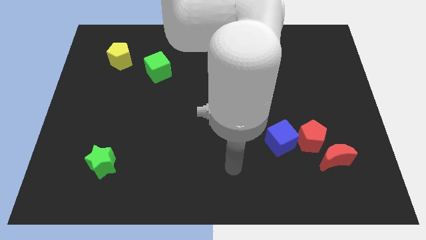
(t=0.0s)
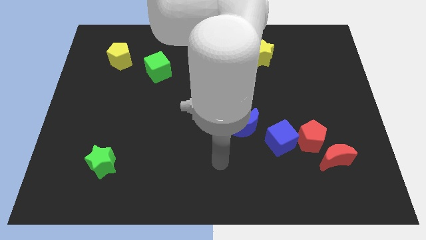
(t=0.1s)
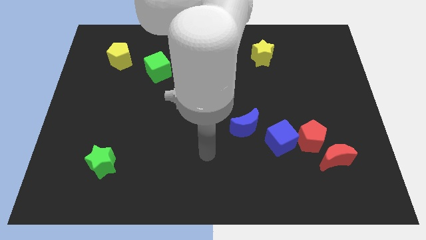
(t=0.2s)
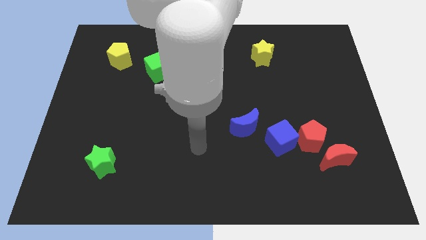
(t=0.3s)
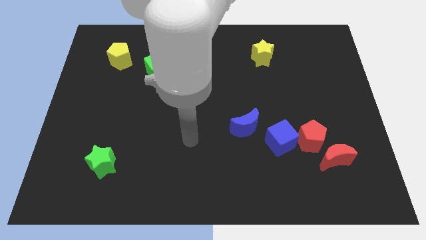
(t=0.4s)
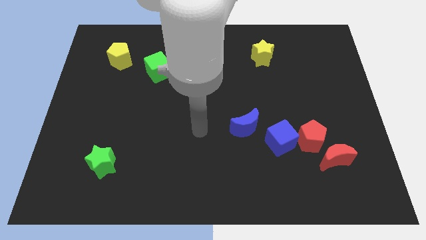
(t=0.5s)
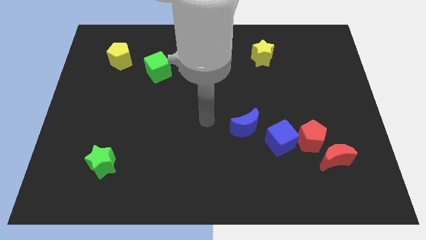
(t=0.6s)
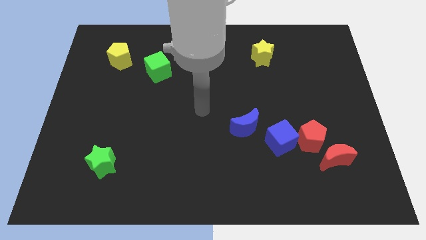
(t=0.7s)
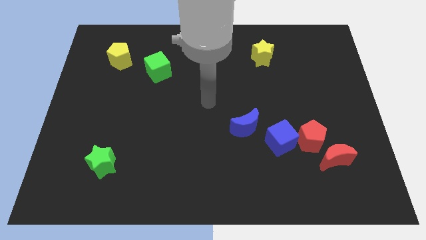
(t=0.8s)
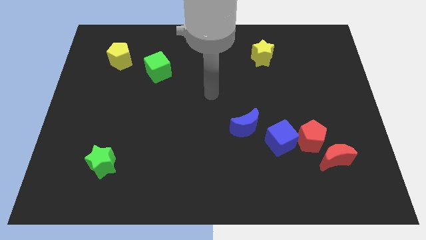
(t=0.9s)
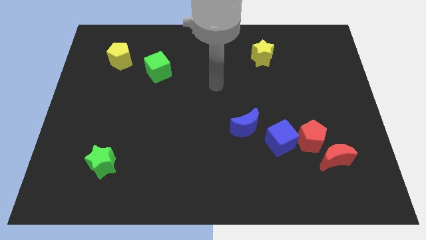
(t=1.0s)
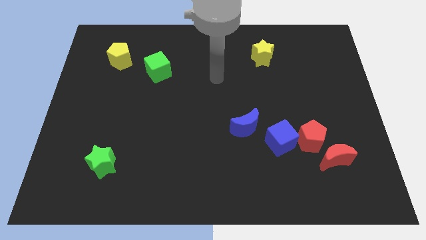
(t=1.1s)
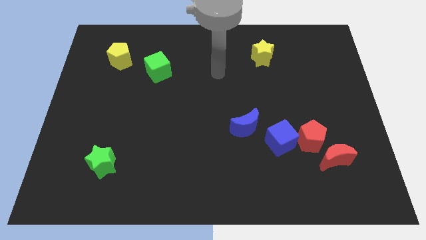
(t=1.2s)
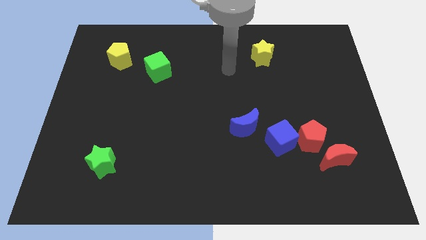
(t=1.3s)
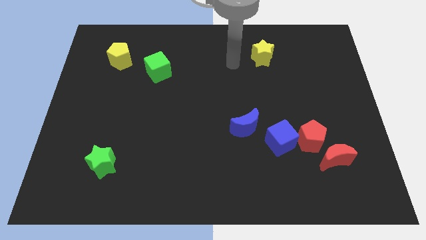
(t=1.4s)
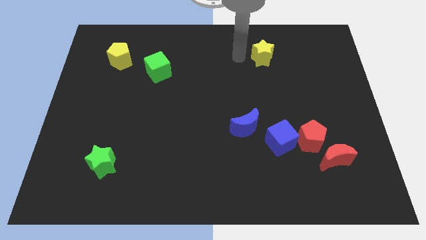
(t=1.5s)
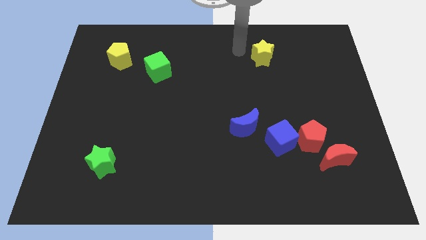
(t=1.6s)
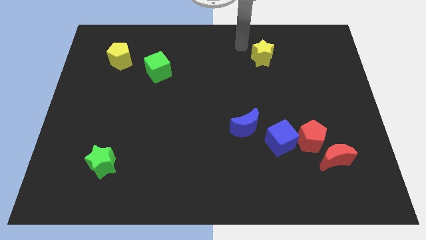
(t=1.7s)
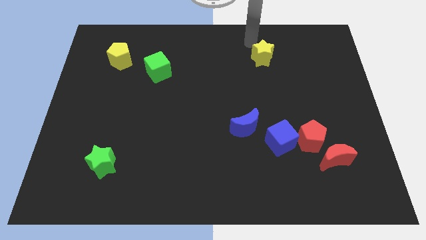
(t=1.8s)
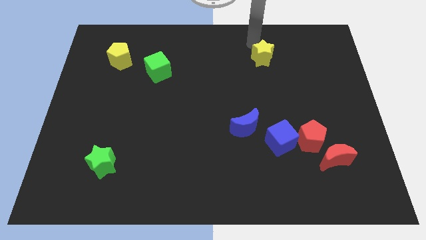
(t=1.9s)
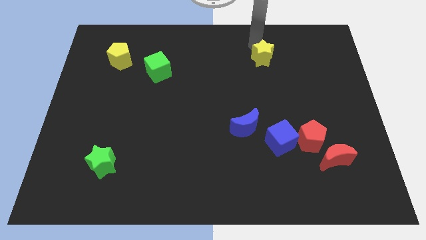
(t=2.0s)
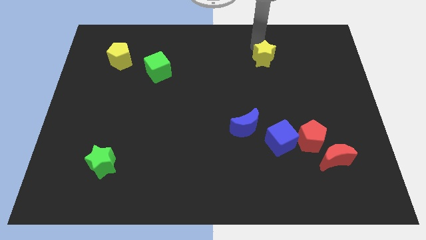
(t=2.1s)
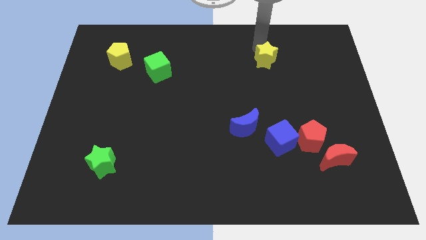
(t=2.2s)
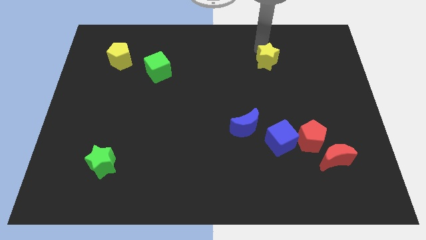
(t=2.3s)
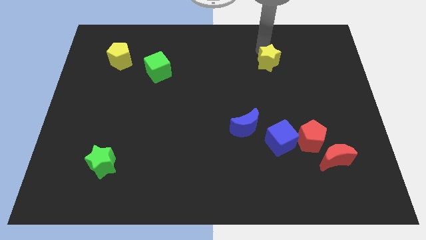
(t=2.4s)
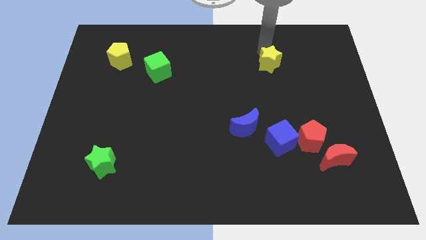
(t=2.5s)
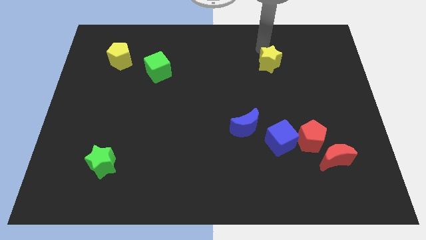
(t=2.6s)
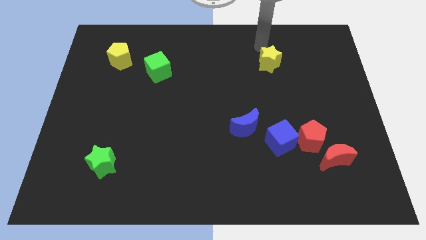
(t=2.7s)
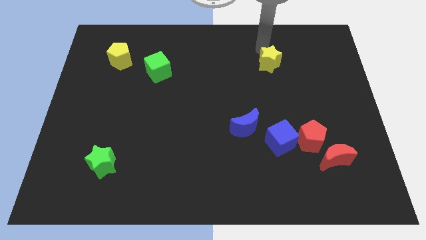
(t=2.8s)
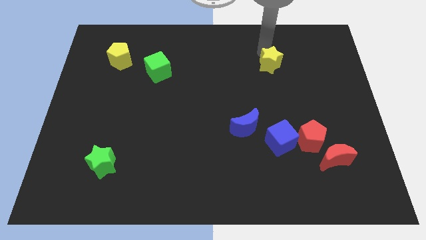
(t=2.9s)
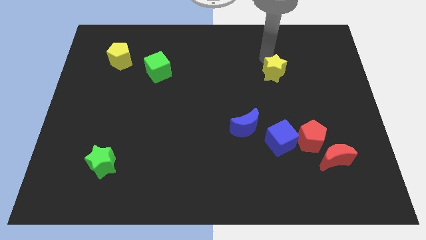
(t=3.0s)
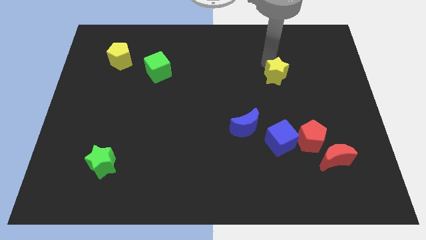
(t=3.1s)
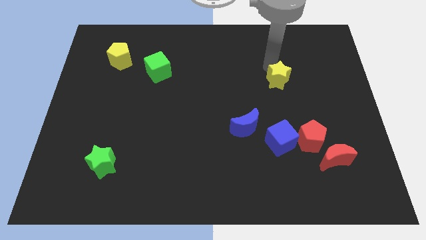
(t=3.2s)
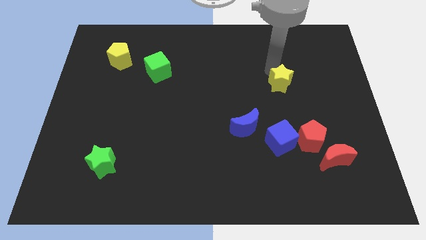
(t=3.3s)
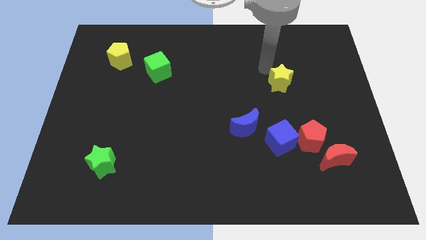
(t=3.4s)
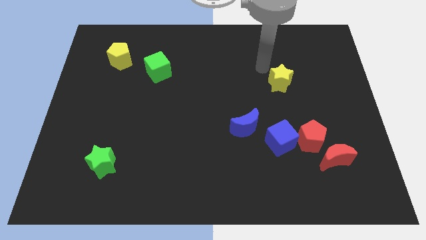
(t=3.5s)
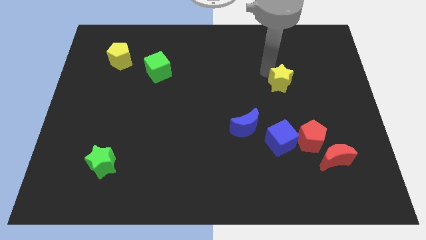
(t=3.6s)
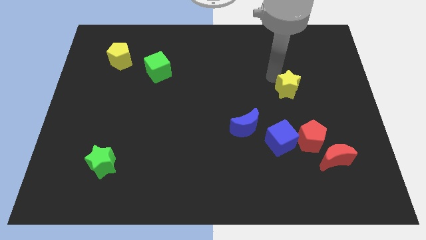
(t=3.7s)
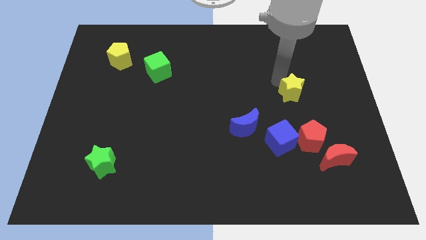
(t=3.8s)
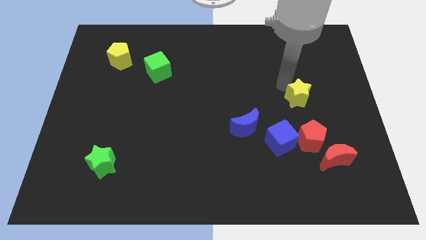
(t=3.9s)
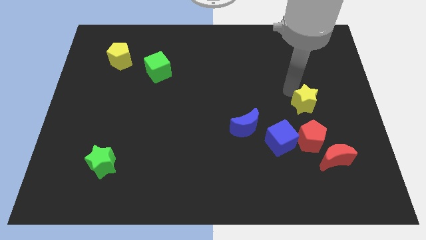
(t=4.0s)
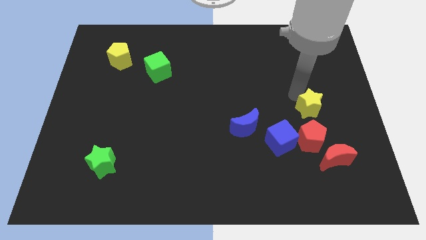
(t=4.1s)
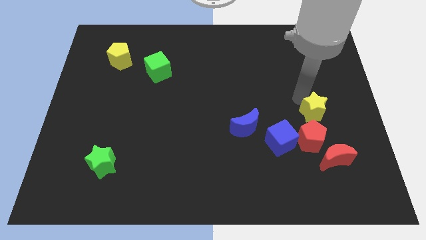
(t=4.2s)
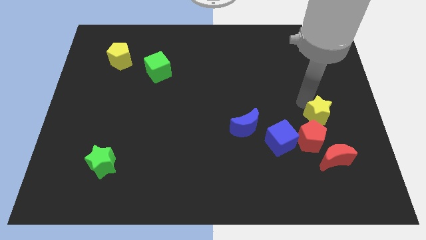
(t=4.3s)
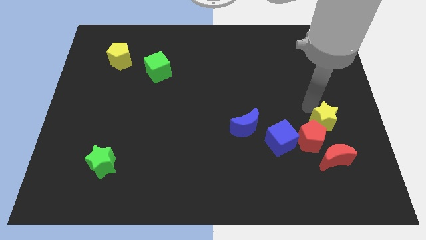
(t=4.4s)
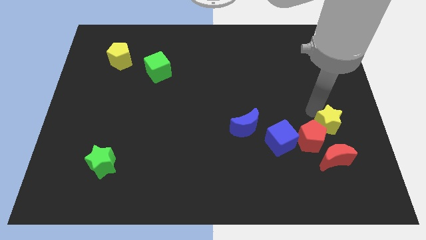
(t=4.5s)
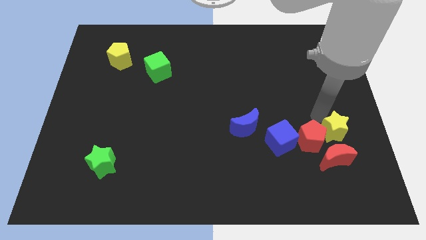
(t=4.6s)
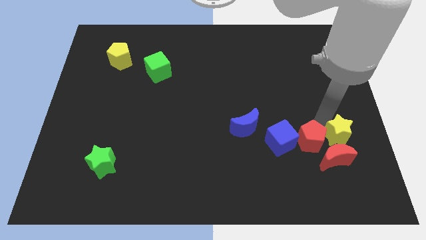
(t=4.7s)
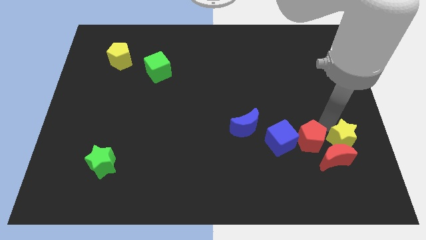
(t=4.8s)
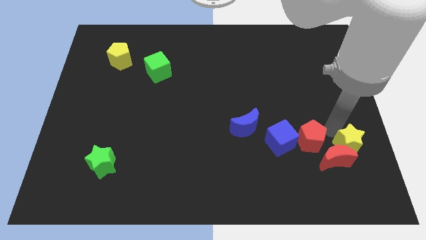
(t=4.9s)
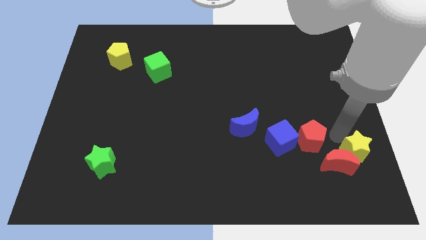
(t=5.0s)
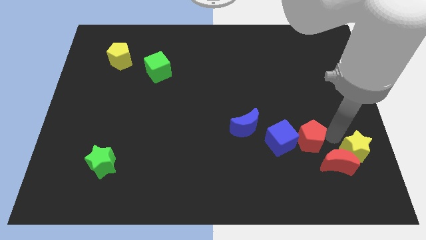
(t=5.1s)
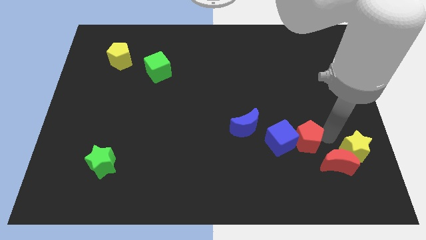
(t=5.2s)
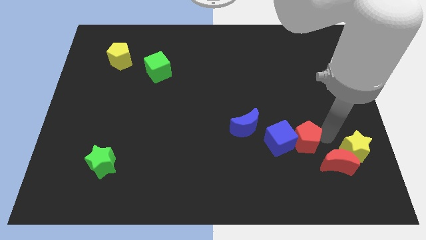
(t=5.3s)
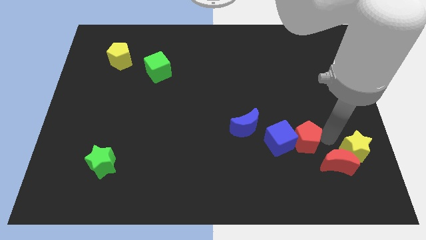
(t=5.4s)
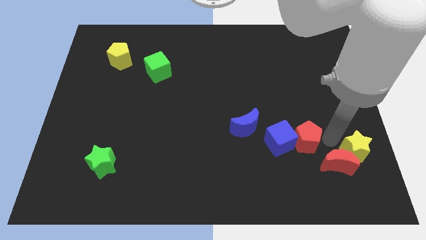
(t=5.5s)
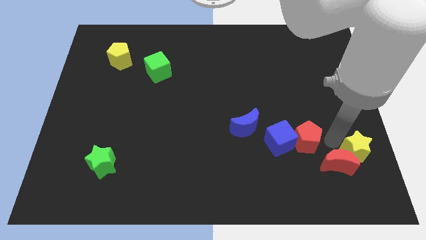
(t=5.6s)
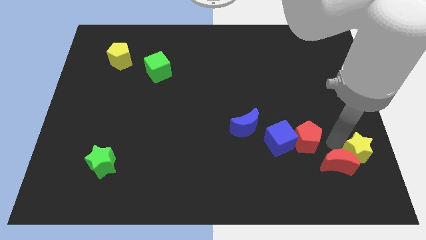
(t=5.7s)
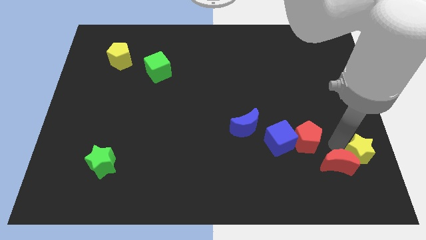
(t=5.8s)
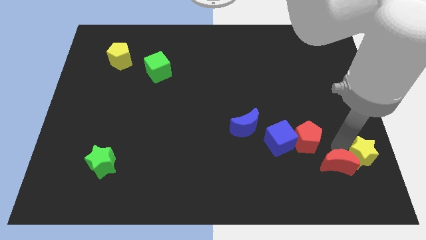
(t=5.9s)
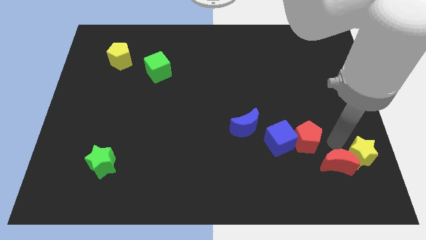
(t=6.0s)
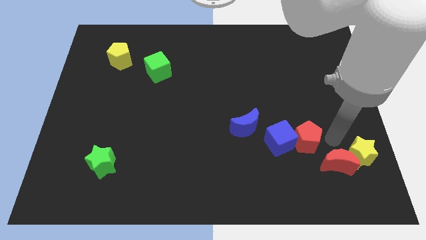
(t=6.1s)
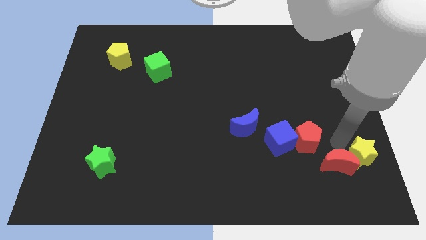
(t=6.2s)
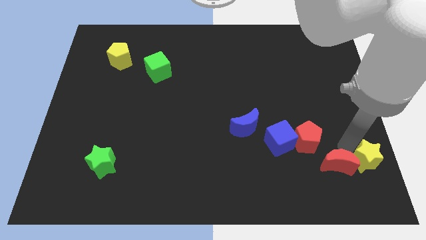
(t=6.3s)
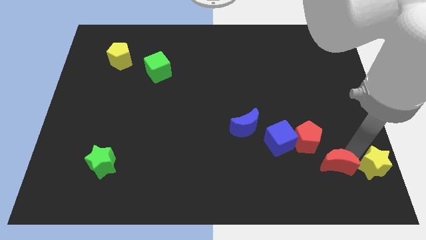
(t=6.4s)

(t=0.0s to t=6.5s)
push the yellow star to the bottom right corner
